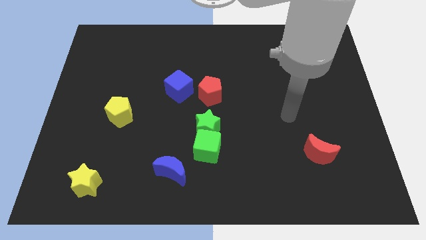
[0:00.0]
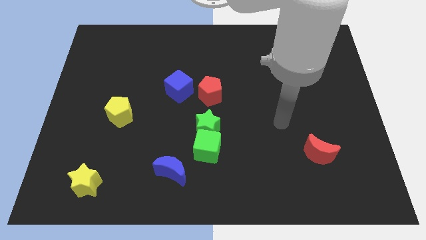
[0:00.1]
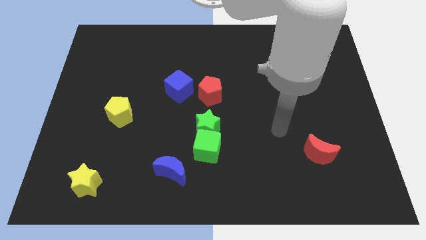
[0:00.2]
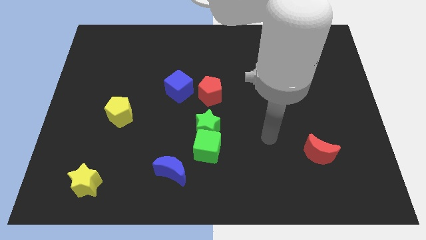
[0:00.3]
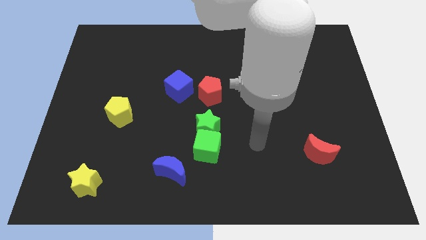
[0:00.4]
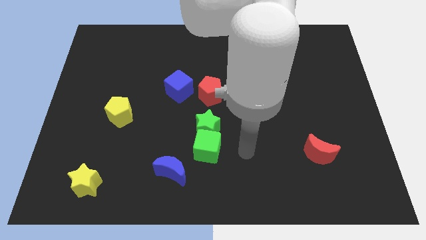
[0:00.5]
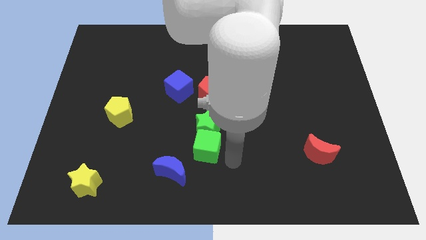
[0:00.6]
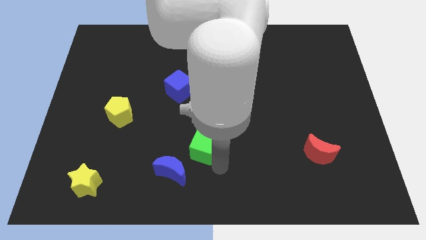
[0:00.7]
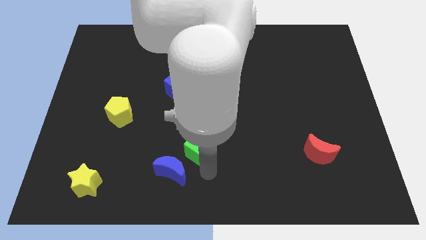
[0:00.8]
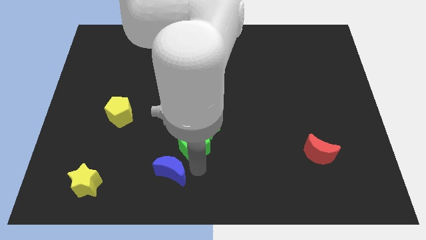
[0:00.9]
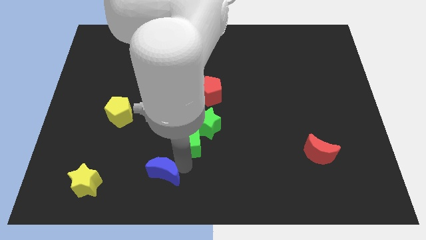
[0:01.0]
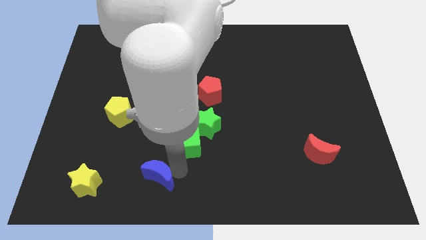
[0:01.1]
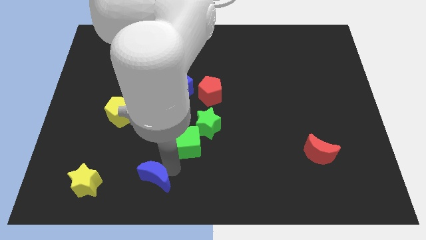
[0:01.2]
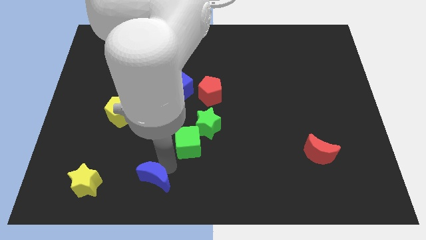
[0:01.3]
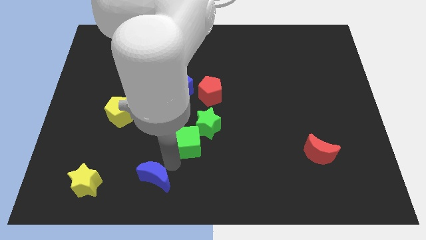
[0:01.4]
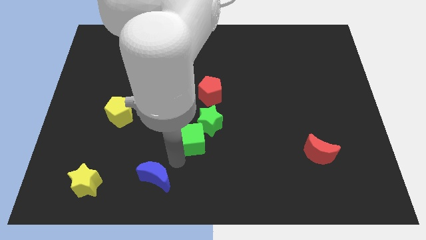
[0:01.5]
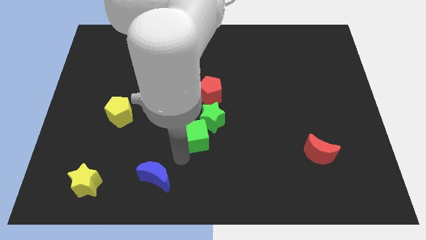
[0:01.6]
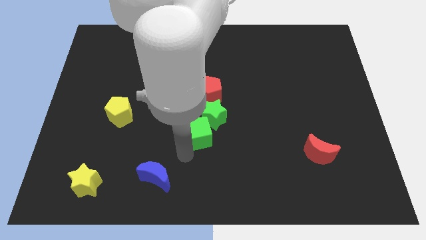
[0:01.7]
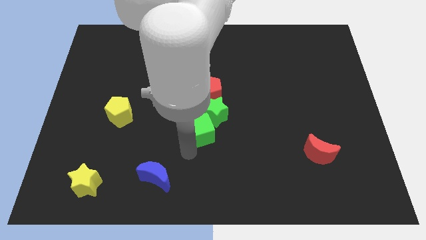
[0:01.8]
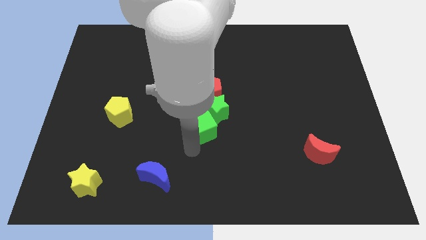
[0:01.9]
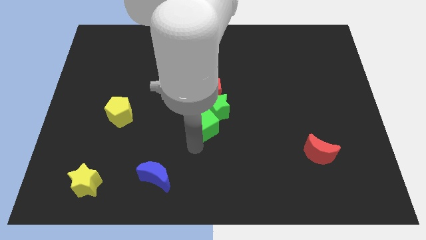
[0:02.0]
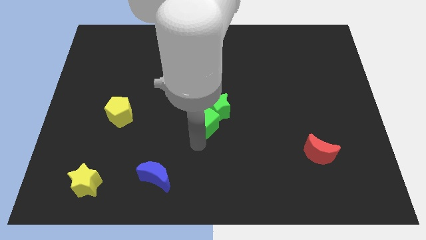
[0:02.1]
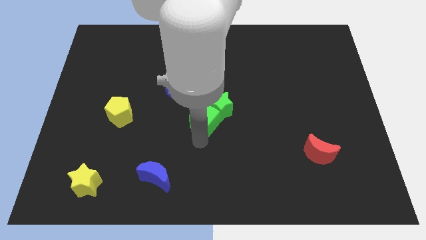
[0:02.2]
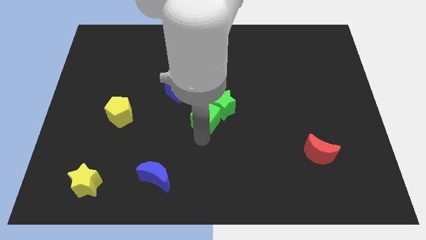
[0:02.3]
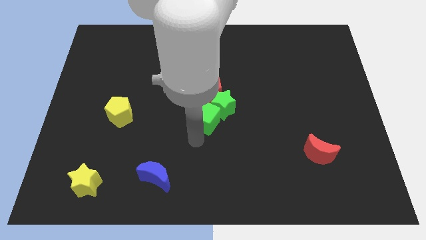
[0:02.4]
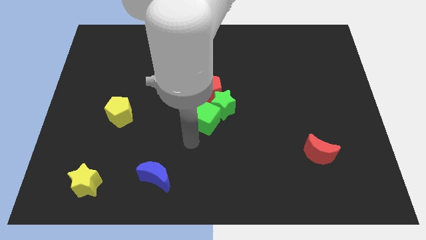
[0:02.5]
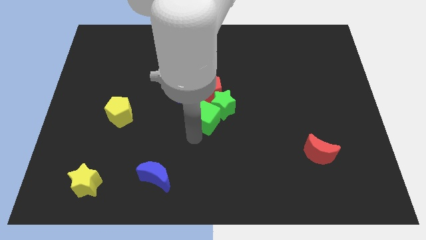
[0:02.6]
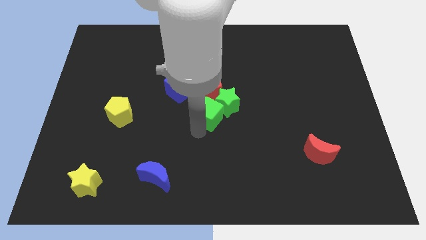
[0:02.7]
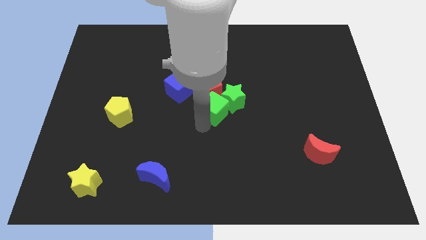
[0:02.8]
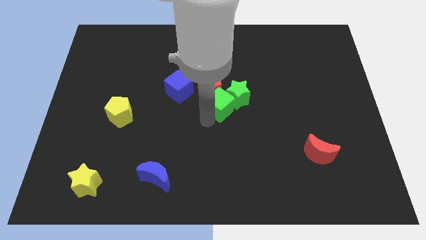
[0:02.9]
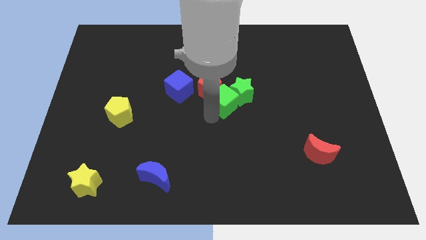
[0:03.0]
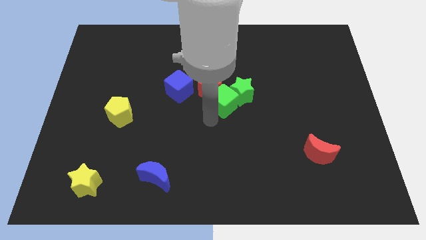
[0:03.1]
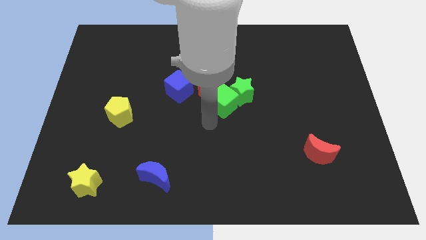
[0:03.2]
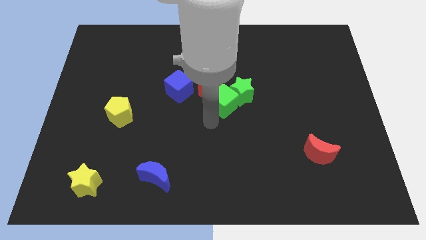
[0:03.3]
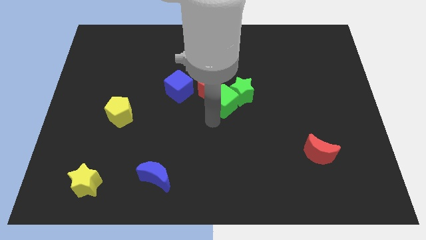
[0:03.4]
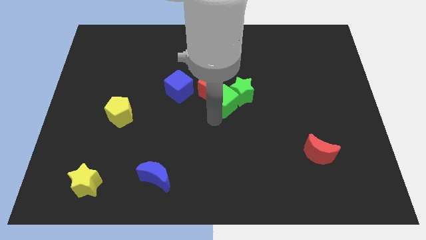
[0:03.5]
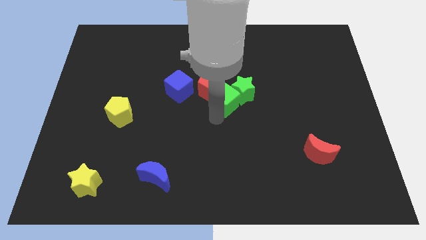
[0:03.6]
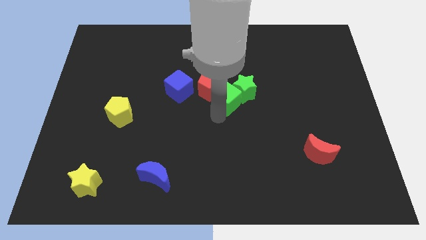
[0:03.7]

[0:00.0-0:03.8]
separate the green cube from the green star and blue moon

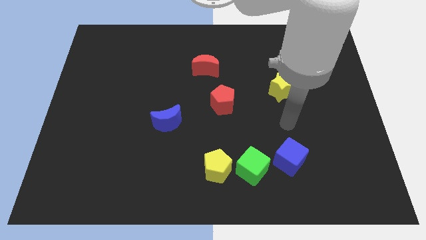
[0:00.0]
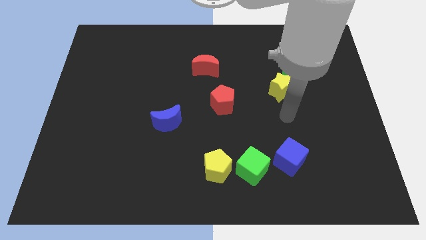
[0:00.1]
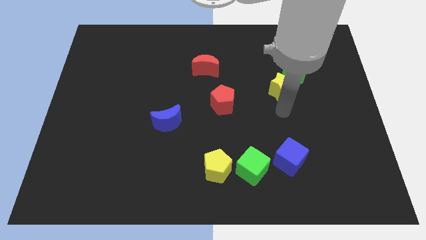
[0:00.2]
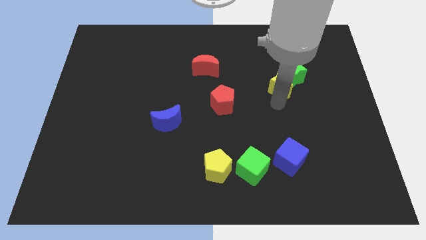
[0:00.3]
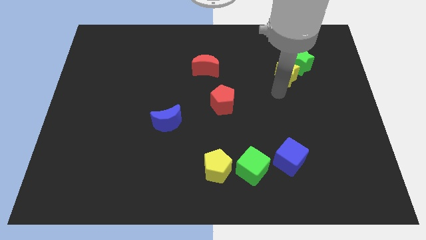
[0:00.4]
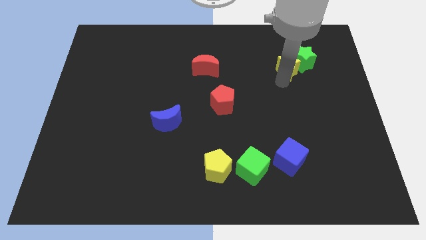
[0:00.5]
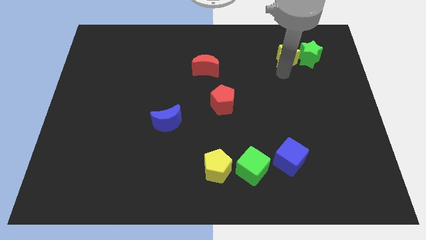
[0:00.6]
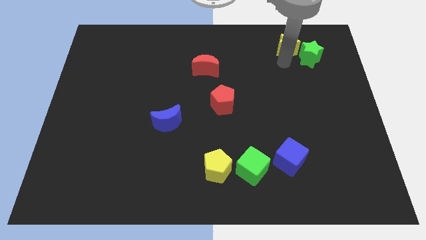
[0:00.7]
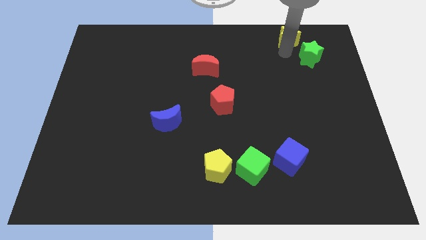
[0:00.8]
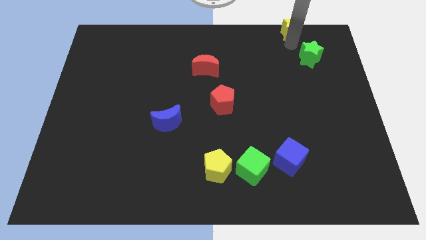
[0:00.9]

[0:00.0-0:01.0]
move the green star away from the yellow star

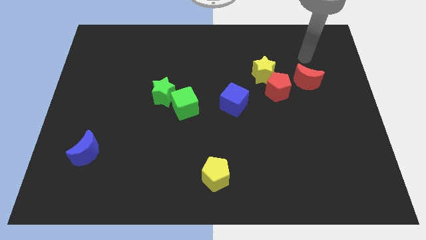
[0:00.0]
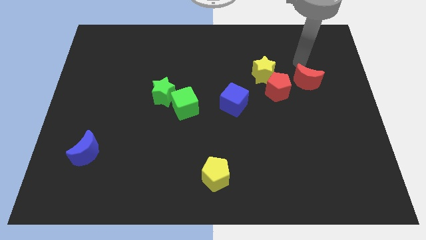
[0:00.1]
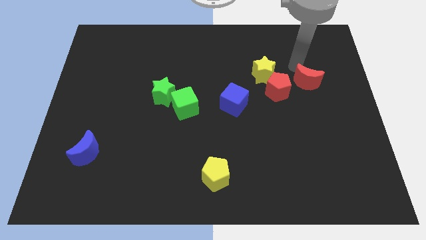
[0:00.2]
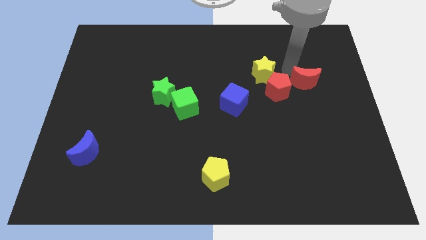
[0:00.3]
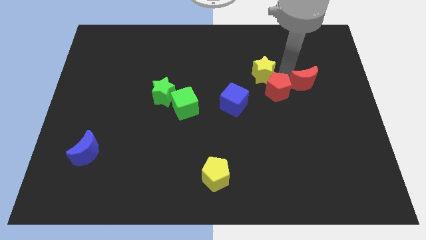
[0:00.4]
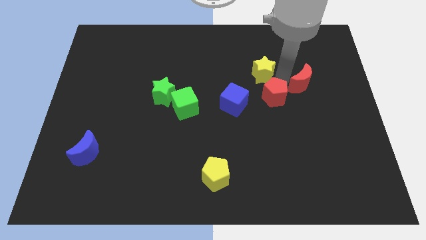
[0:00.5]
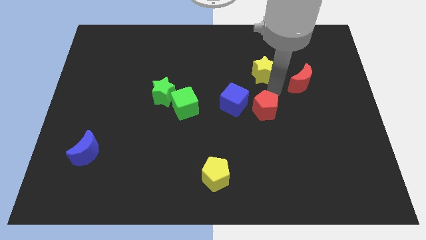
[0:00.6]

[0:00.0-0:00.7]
separate the yellow star from the red pentagon

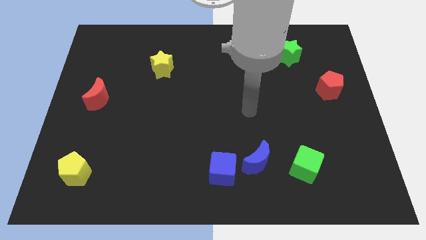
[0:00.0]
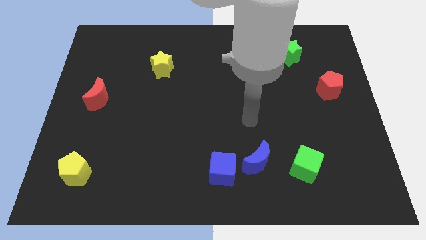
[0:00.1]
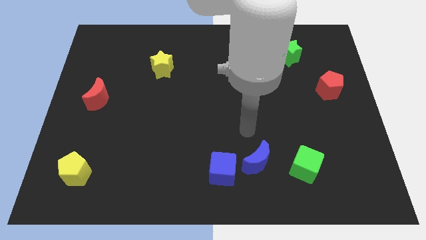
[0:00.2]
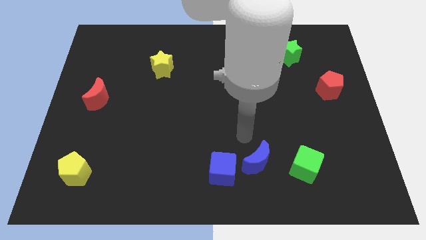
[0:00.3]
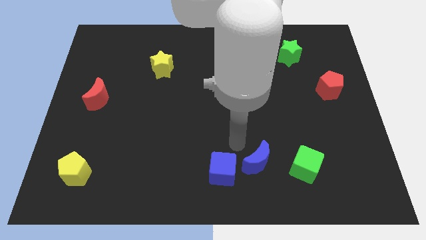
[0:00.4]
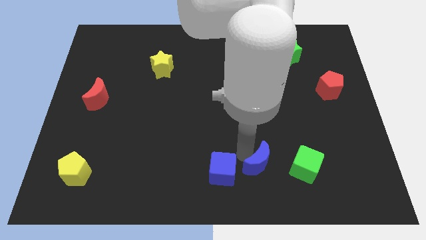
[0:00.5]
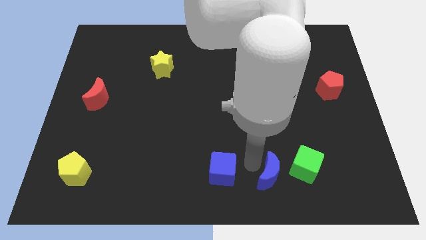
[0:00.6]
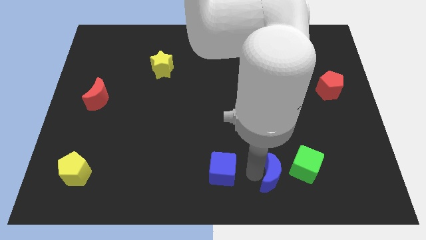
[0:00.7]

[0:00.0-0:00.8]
pull the blue cube apart from the blue moon

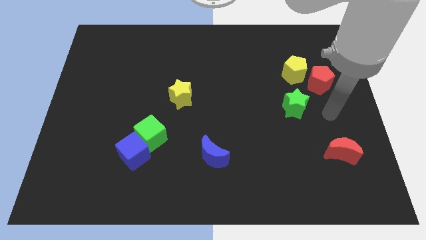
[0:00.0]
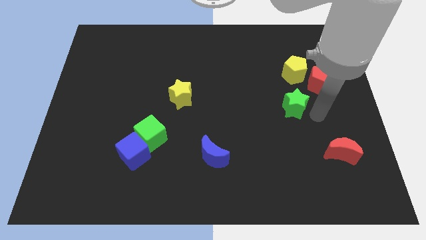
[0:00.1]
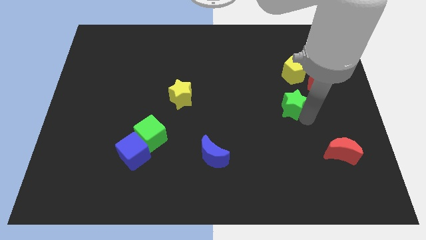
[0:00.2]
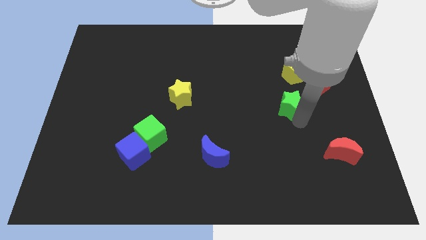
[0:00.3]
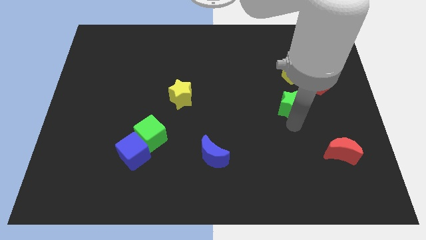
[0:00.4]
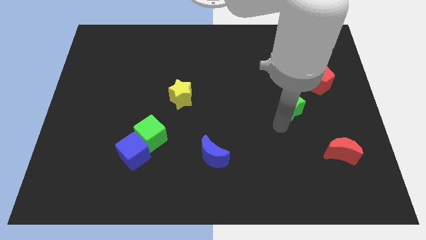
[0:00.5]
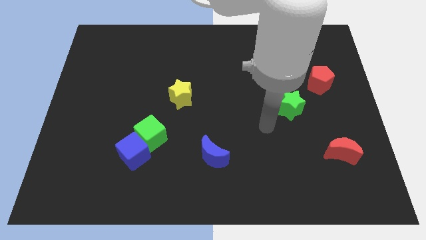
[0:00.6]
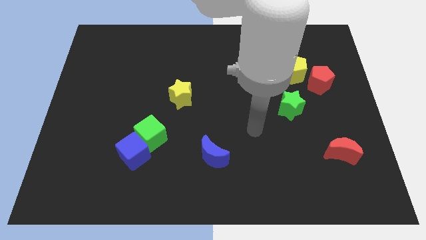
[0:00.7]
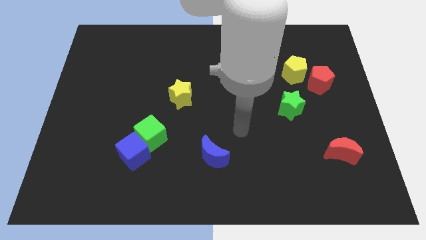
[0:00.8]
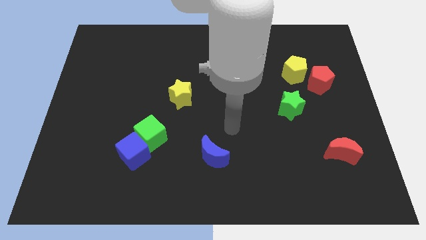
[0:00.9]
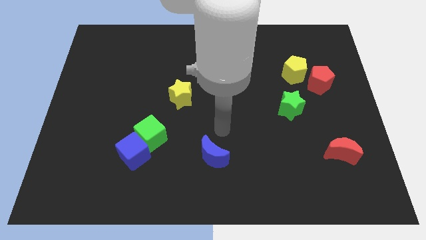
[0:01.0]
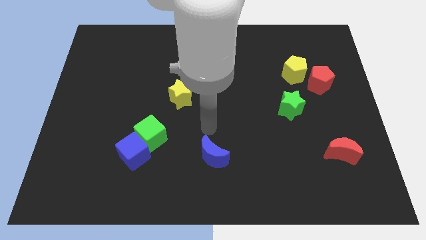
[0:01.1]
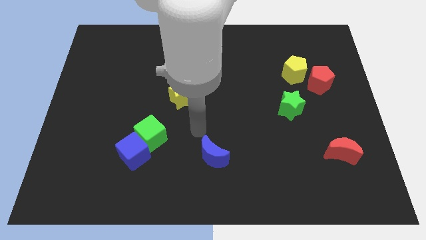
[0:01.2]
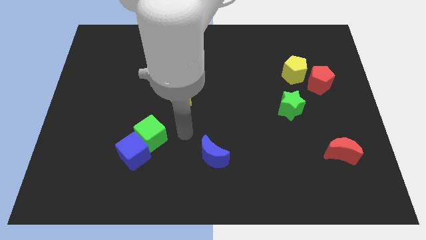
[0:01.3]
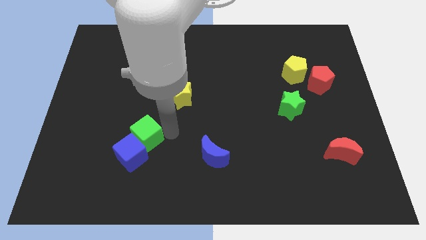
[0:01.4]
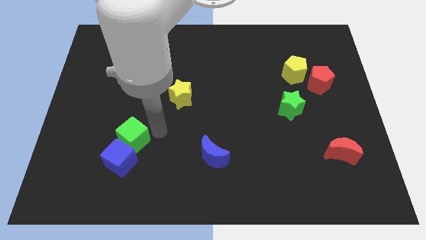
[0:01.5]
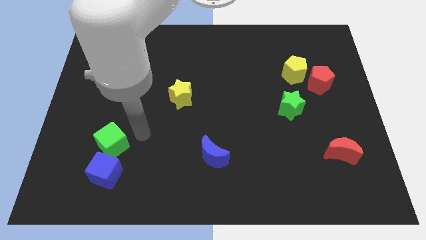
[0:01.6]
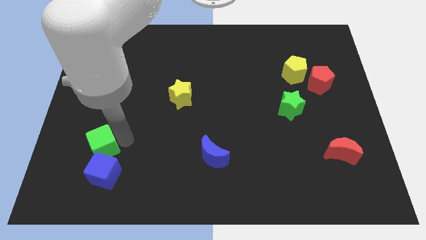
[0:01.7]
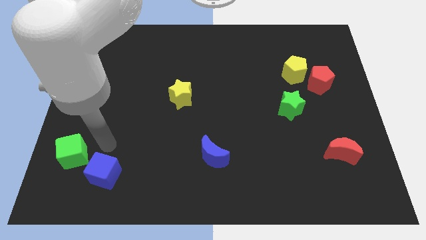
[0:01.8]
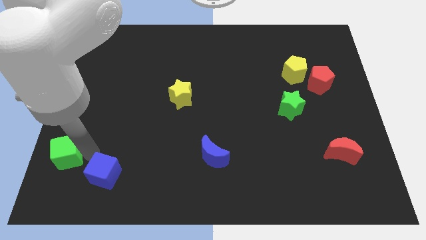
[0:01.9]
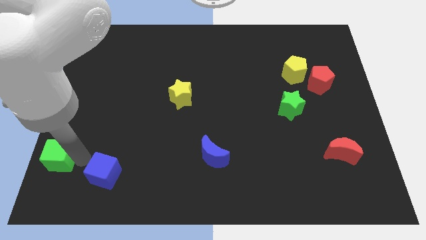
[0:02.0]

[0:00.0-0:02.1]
move the blue cube away from the green cube

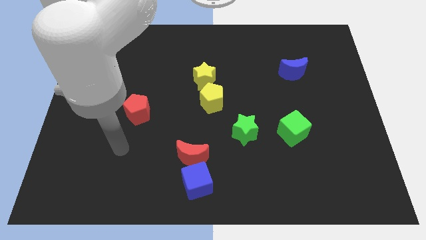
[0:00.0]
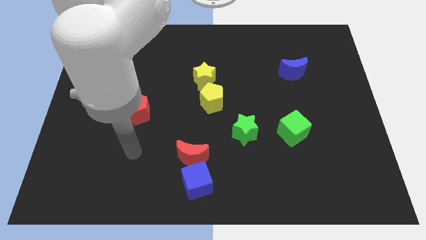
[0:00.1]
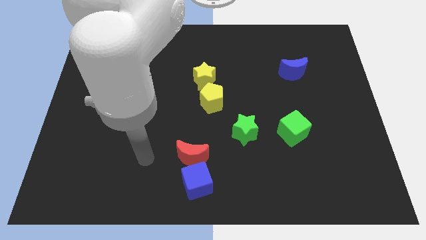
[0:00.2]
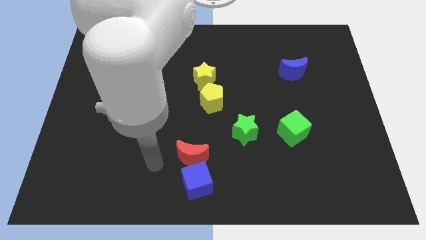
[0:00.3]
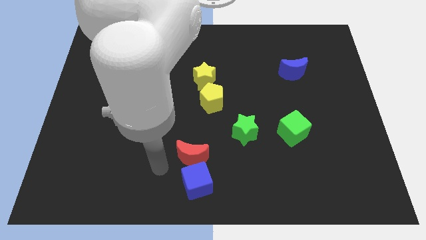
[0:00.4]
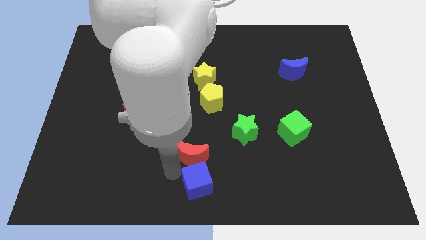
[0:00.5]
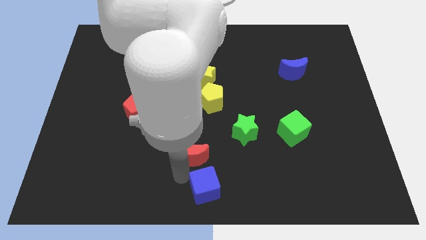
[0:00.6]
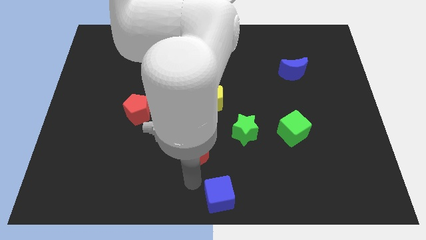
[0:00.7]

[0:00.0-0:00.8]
pull the red moon apart from the blue cube
